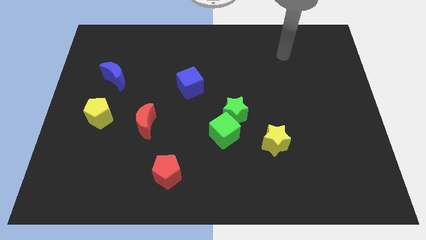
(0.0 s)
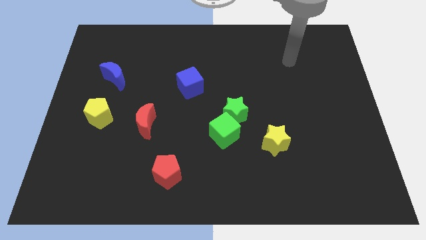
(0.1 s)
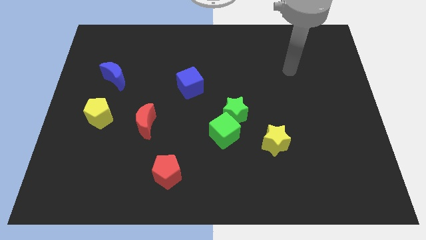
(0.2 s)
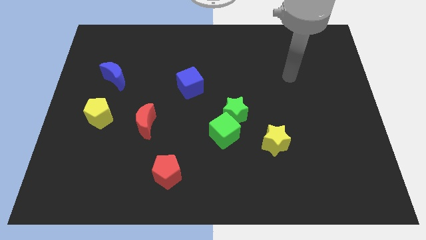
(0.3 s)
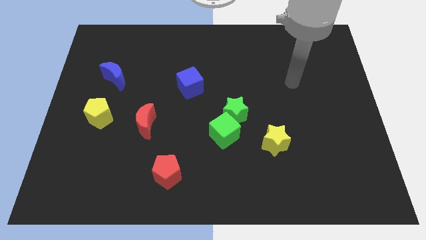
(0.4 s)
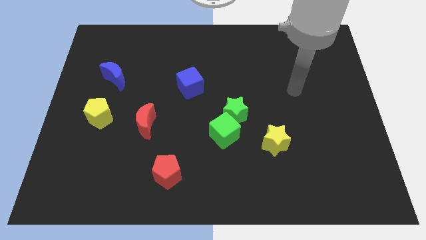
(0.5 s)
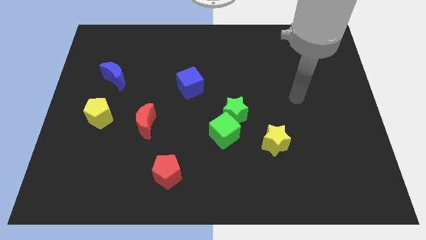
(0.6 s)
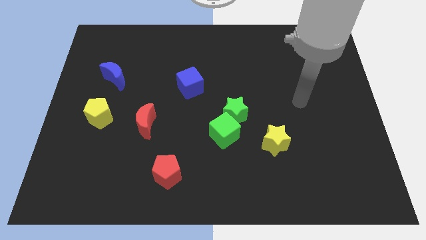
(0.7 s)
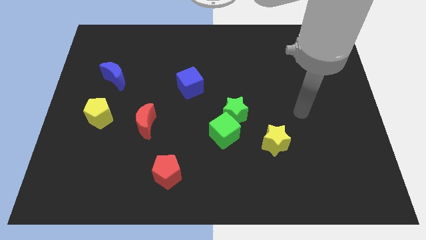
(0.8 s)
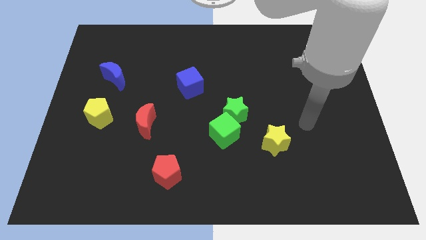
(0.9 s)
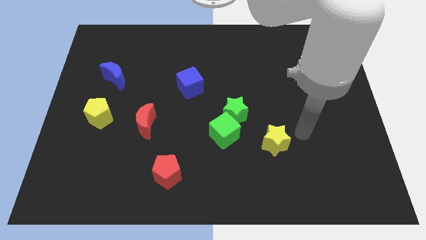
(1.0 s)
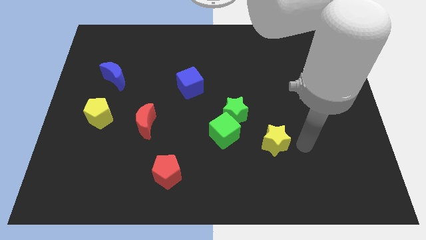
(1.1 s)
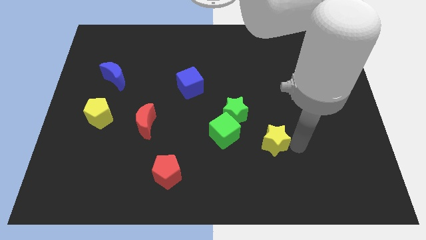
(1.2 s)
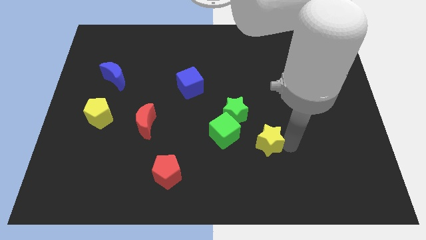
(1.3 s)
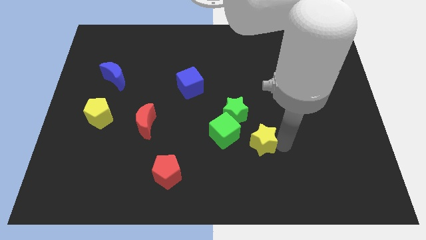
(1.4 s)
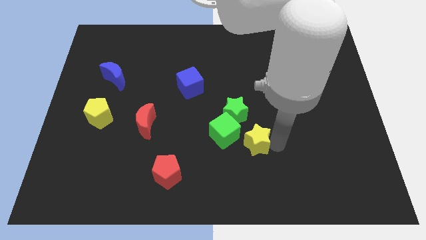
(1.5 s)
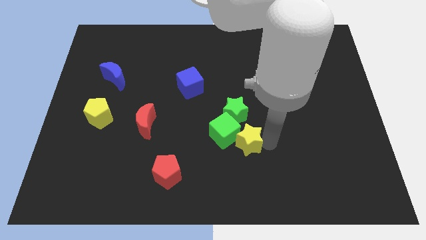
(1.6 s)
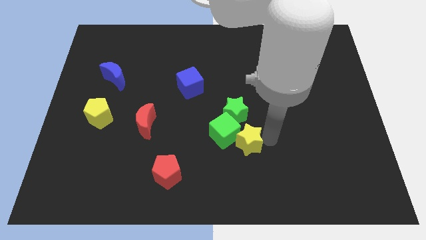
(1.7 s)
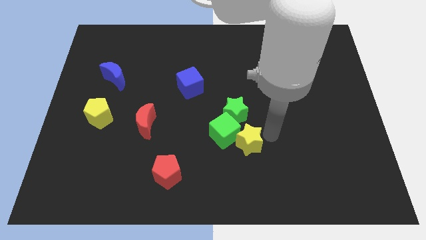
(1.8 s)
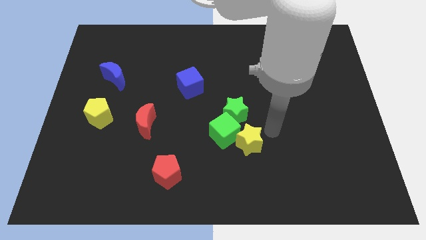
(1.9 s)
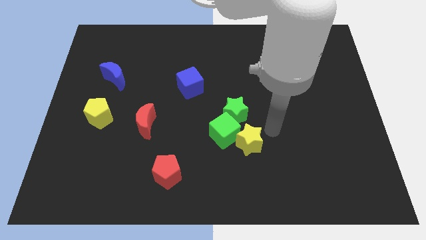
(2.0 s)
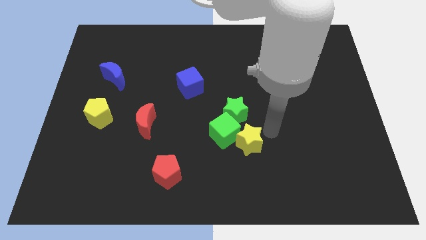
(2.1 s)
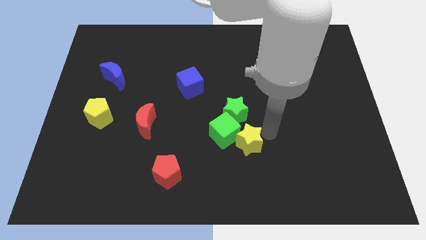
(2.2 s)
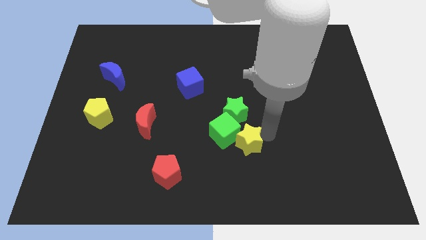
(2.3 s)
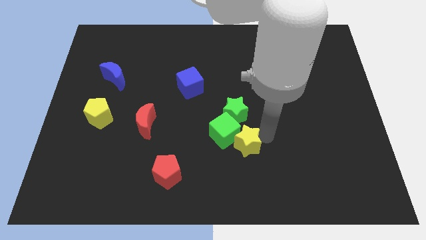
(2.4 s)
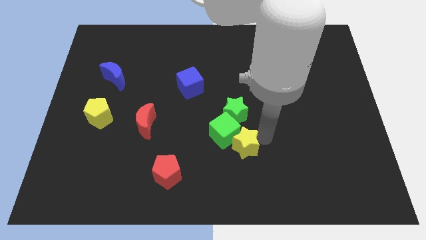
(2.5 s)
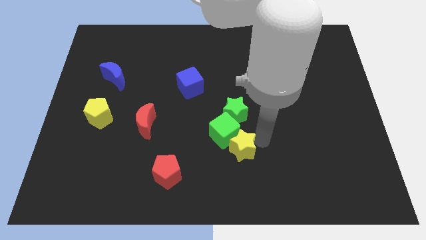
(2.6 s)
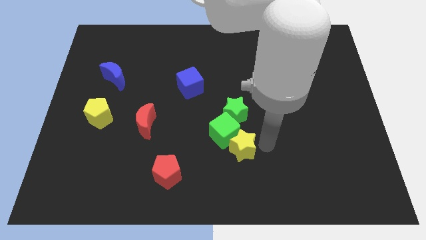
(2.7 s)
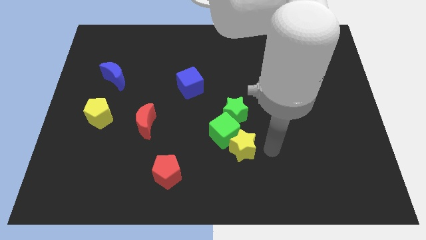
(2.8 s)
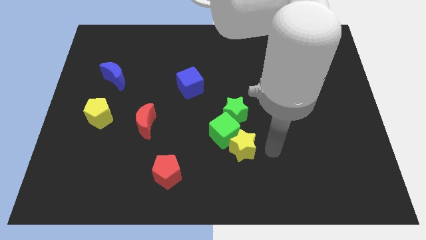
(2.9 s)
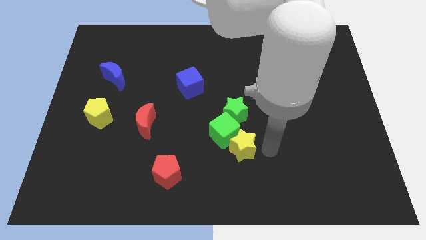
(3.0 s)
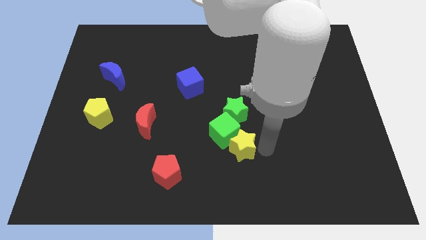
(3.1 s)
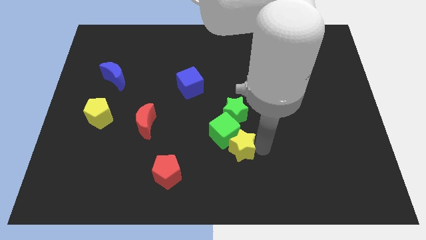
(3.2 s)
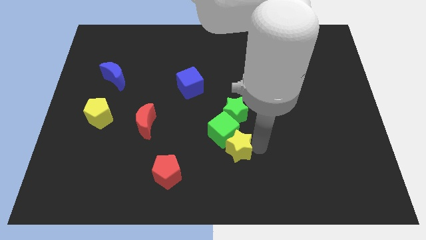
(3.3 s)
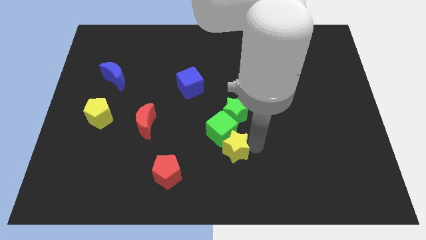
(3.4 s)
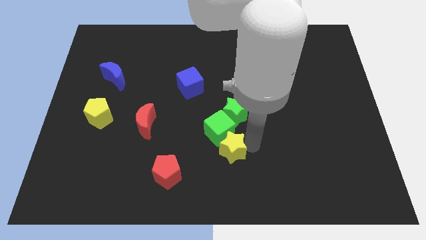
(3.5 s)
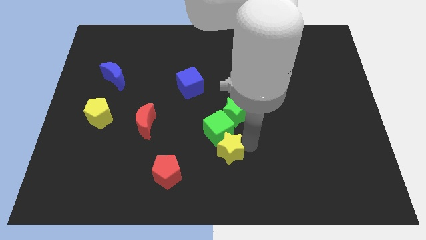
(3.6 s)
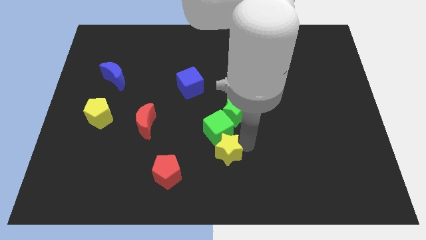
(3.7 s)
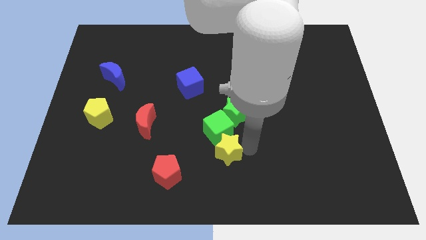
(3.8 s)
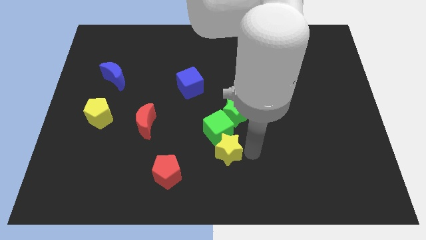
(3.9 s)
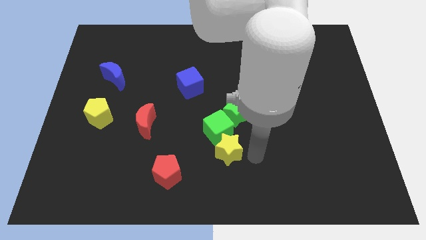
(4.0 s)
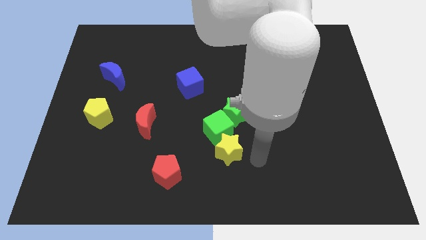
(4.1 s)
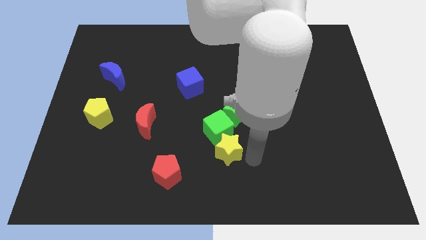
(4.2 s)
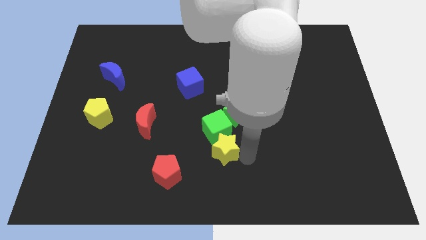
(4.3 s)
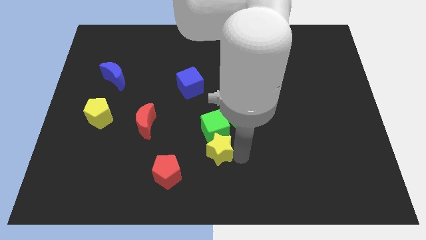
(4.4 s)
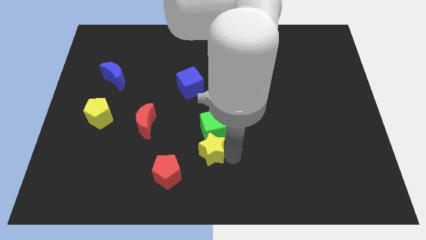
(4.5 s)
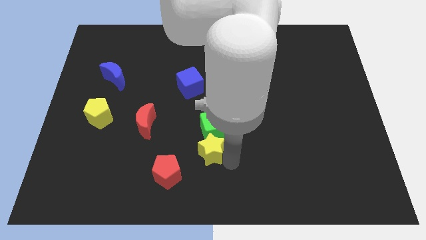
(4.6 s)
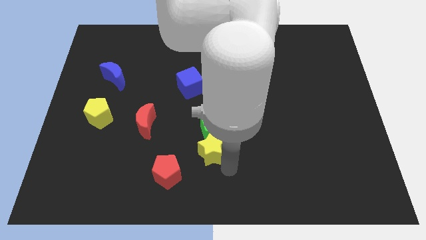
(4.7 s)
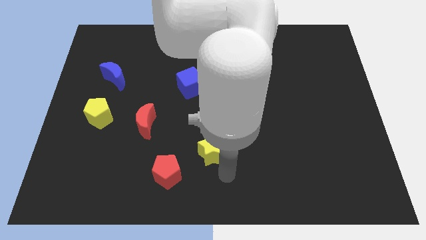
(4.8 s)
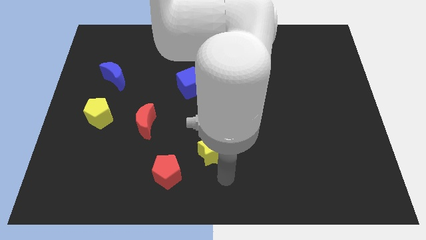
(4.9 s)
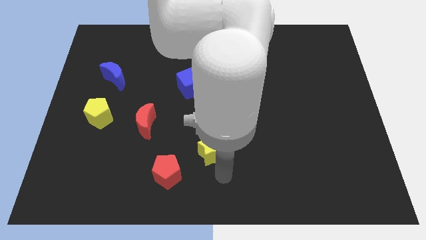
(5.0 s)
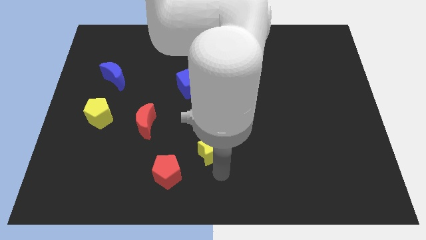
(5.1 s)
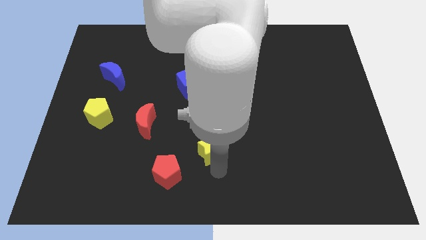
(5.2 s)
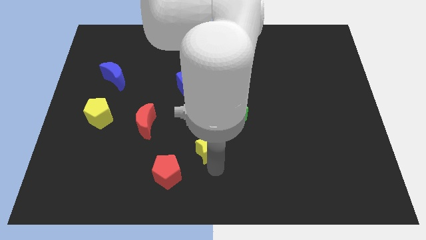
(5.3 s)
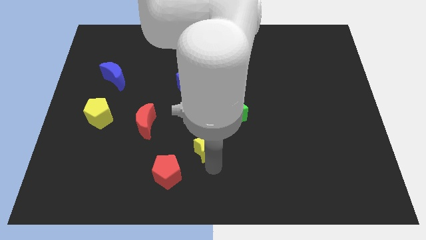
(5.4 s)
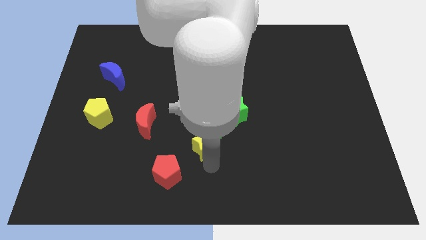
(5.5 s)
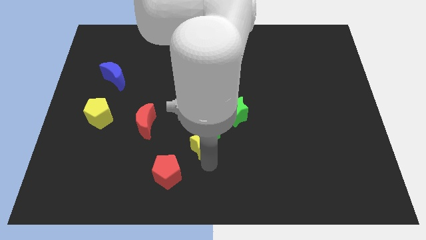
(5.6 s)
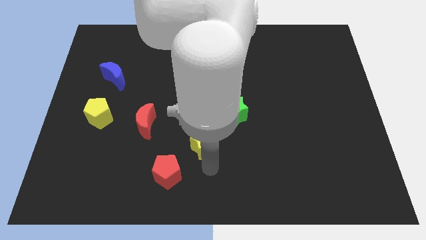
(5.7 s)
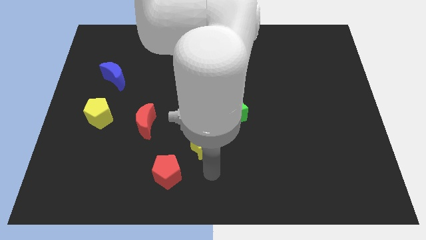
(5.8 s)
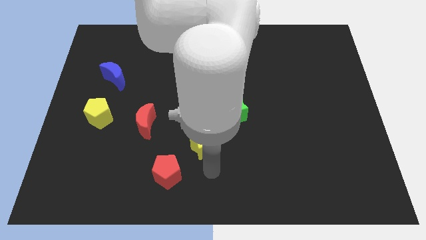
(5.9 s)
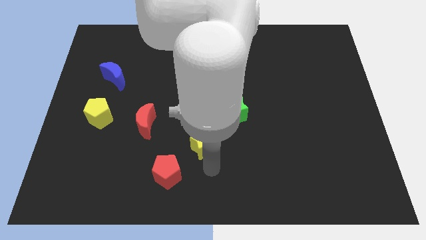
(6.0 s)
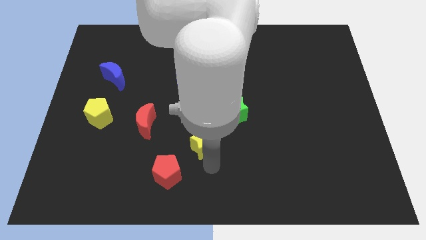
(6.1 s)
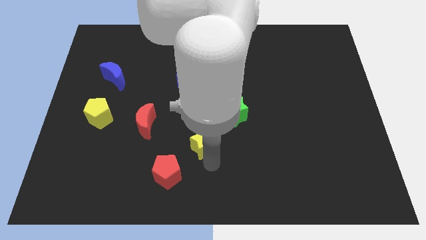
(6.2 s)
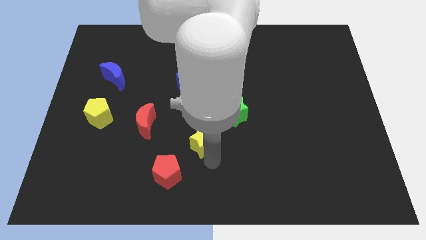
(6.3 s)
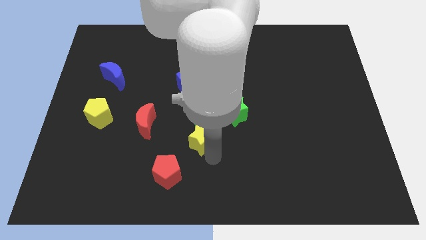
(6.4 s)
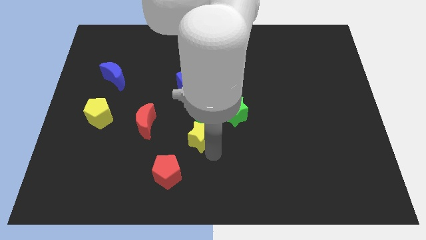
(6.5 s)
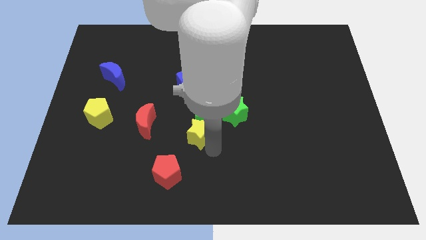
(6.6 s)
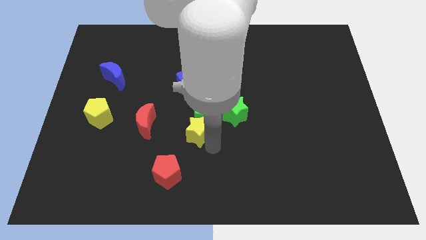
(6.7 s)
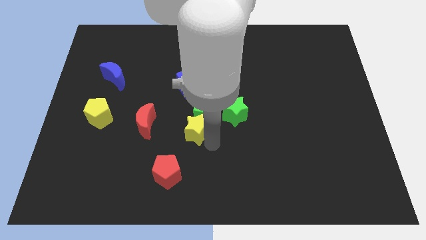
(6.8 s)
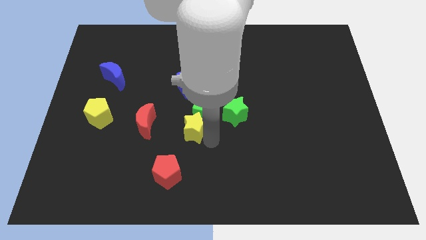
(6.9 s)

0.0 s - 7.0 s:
slide the yellow star just left of the green star

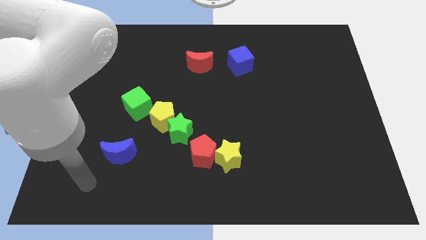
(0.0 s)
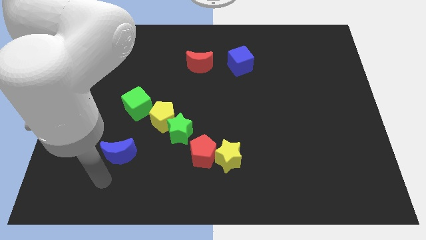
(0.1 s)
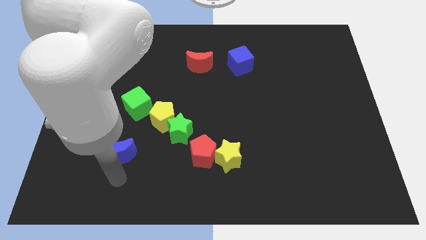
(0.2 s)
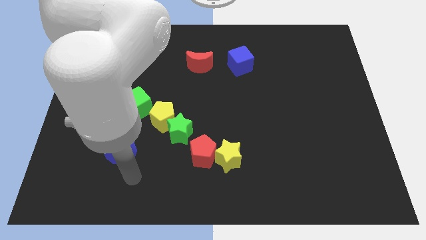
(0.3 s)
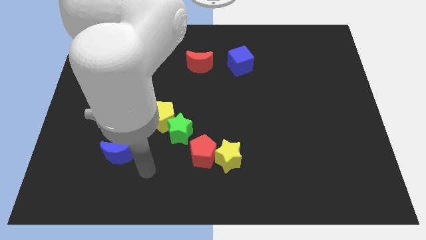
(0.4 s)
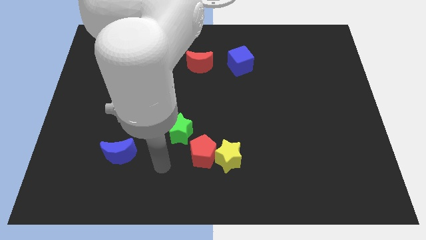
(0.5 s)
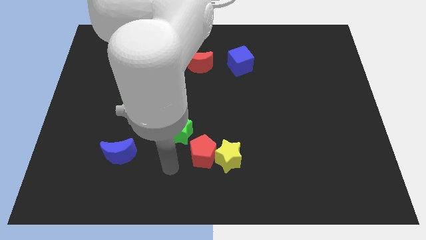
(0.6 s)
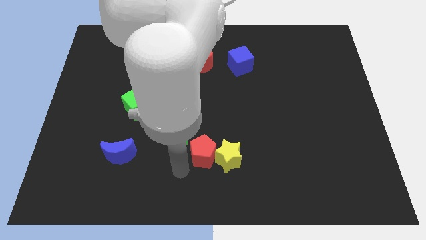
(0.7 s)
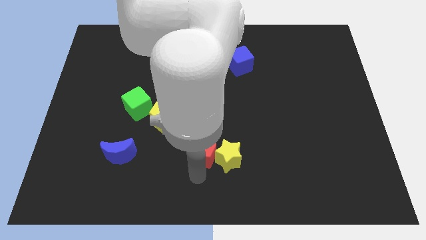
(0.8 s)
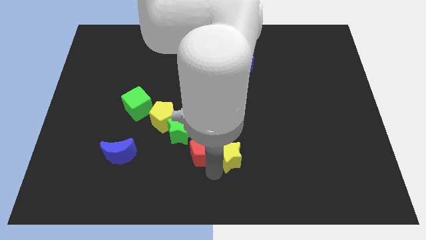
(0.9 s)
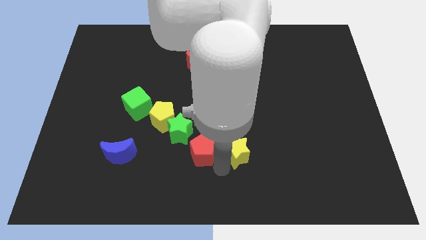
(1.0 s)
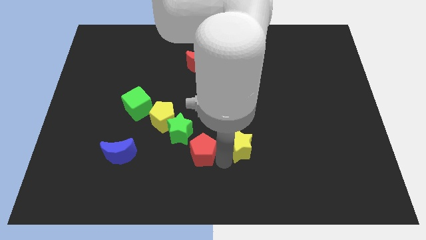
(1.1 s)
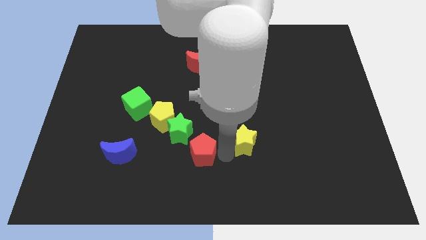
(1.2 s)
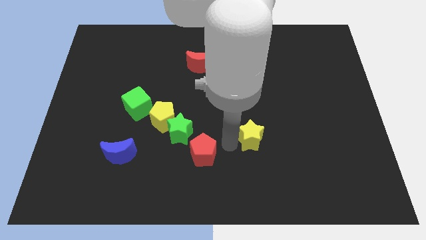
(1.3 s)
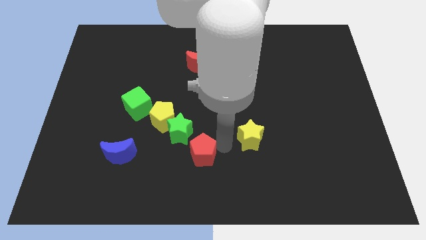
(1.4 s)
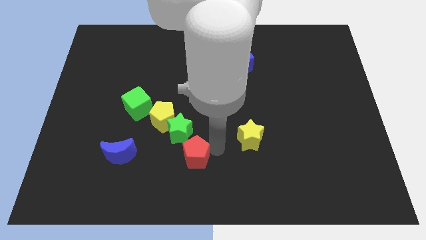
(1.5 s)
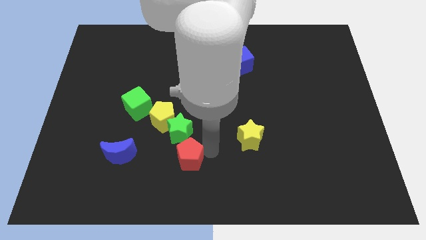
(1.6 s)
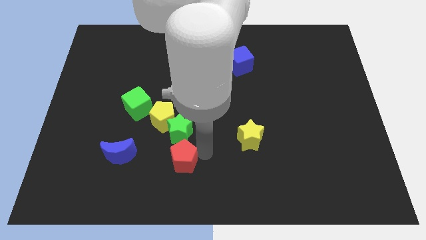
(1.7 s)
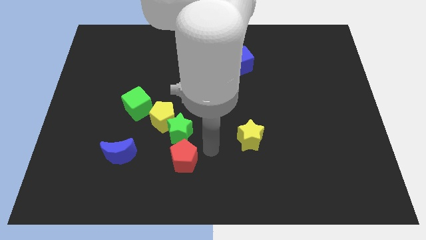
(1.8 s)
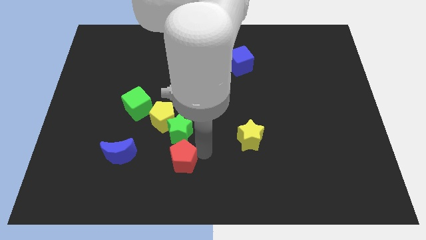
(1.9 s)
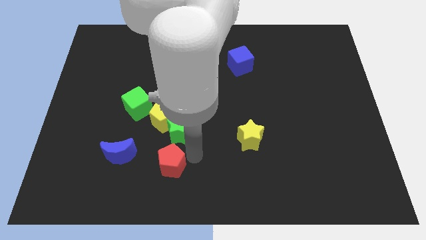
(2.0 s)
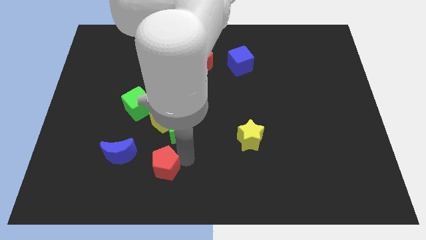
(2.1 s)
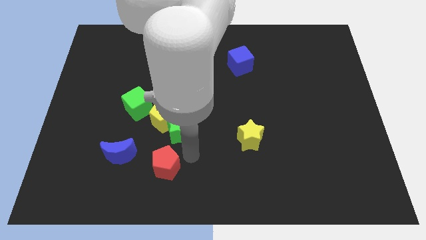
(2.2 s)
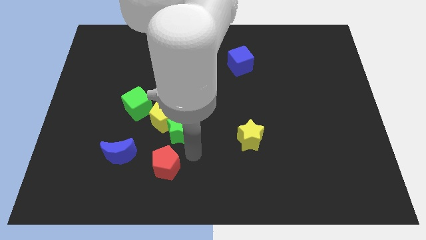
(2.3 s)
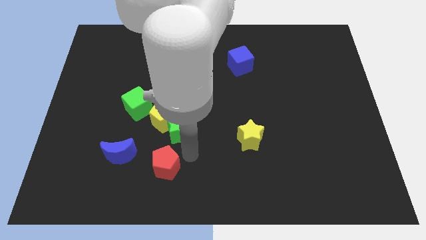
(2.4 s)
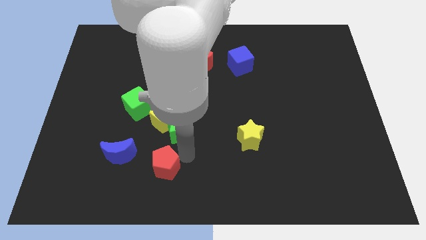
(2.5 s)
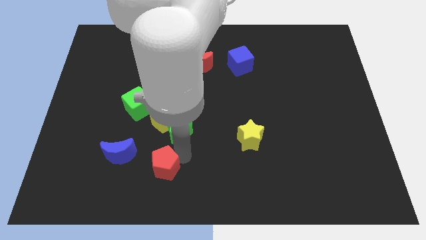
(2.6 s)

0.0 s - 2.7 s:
put the red pentagon to the bottom right of the blue moon
